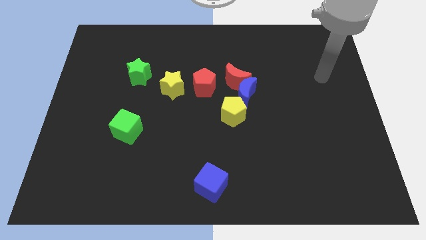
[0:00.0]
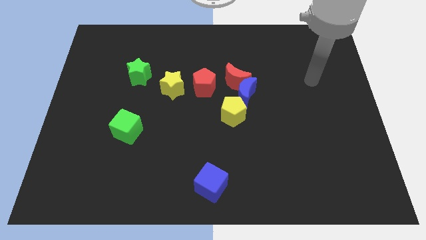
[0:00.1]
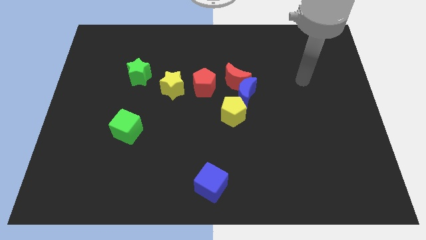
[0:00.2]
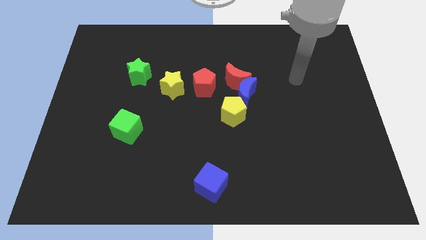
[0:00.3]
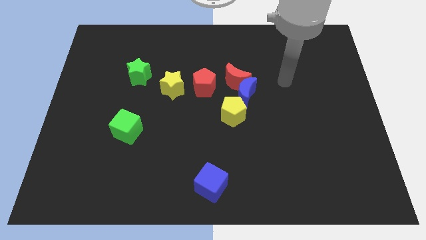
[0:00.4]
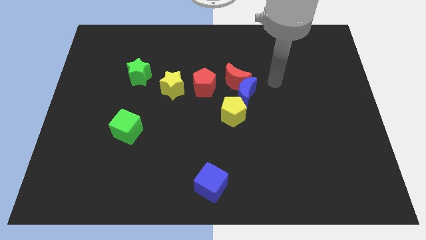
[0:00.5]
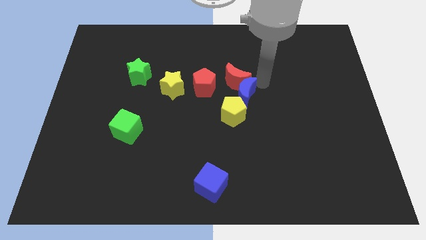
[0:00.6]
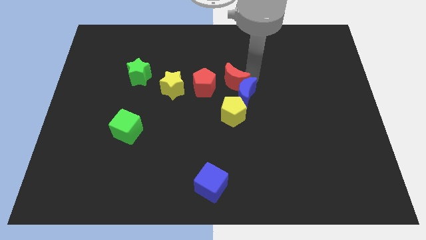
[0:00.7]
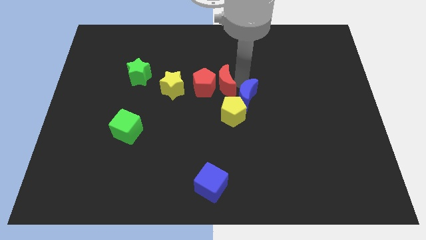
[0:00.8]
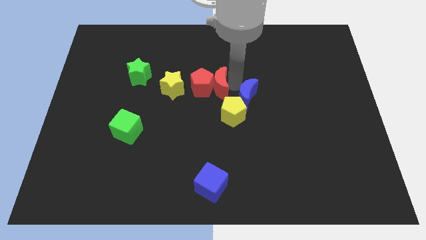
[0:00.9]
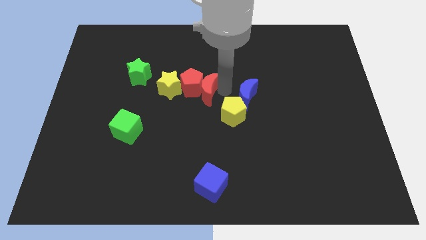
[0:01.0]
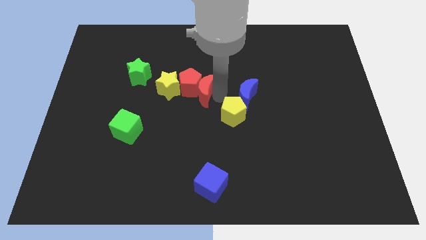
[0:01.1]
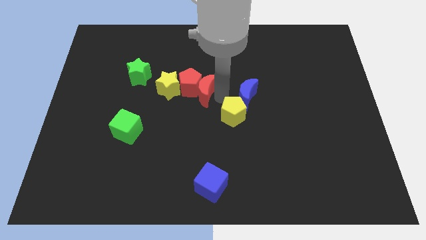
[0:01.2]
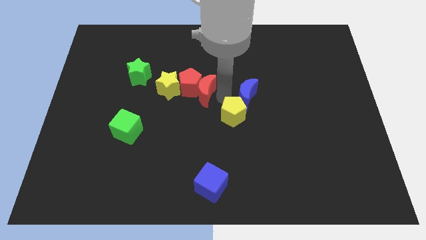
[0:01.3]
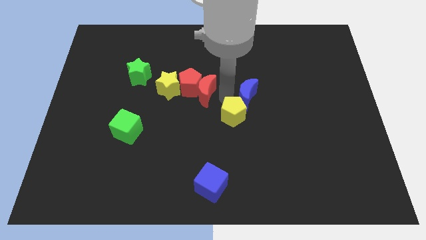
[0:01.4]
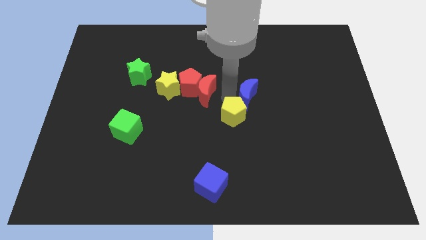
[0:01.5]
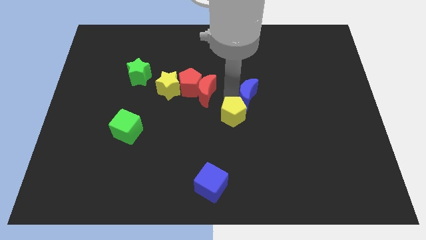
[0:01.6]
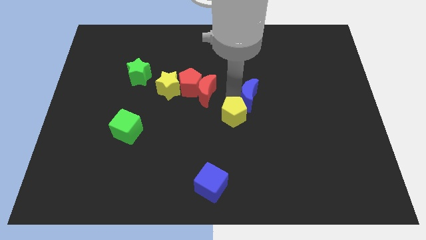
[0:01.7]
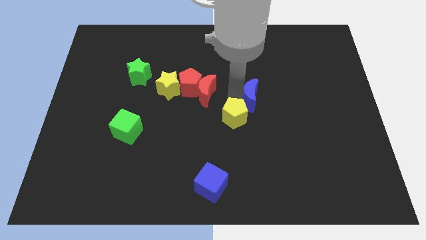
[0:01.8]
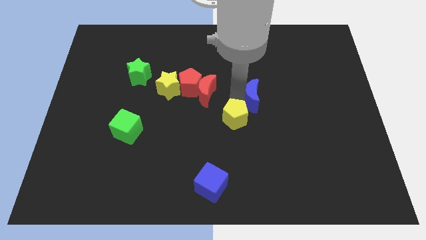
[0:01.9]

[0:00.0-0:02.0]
move the blue moon away from the red moon, yellow pentagon, and red pentagon

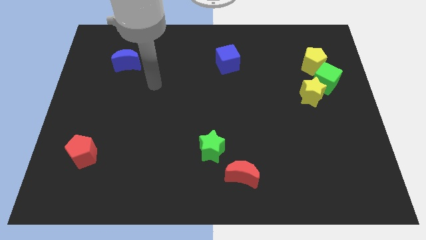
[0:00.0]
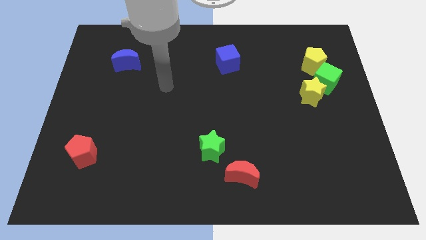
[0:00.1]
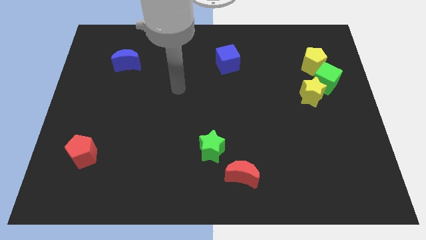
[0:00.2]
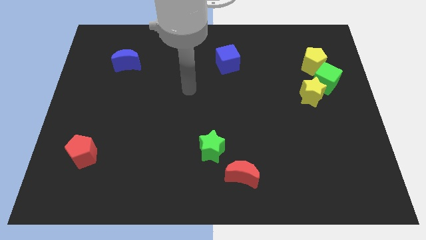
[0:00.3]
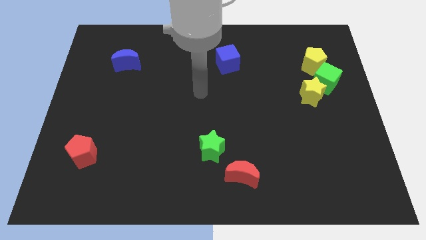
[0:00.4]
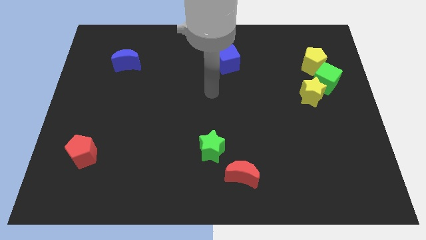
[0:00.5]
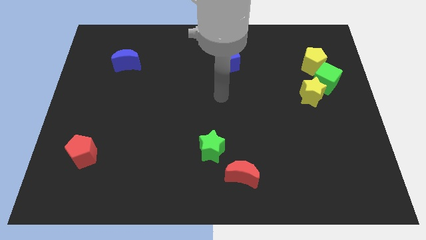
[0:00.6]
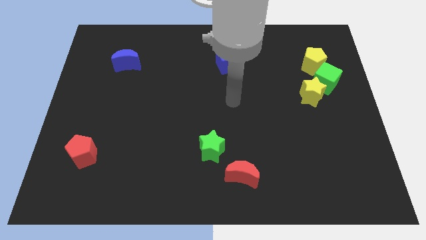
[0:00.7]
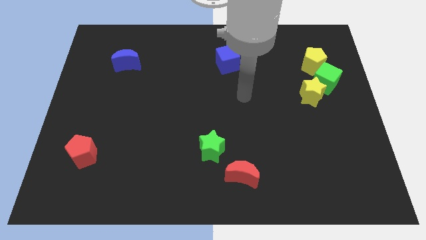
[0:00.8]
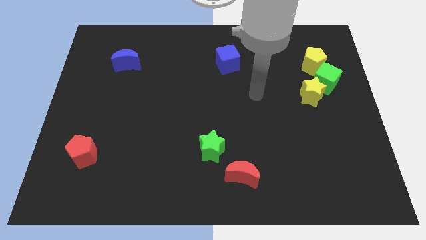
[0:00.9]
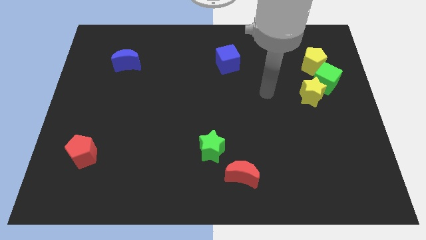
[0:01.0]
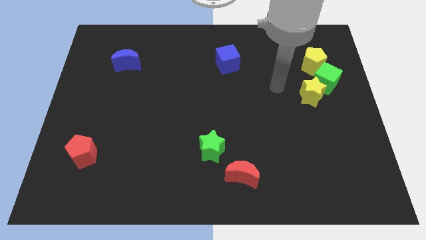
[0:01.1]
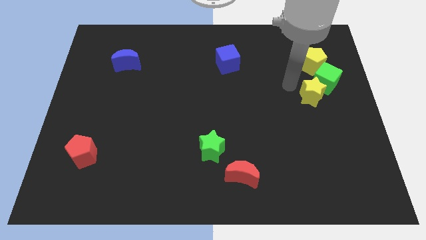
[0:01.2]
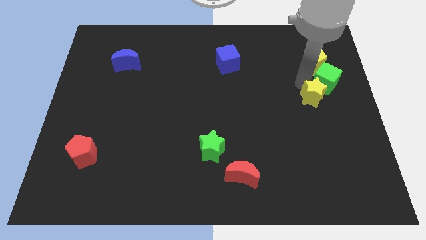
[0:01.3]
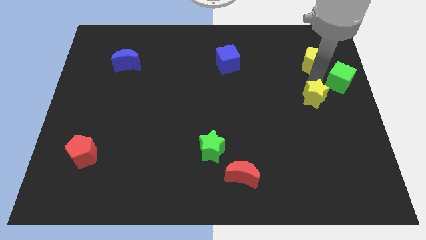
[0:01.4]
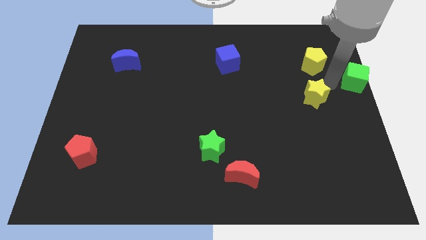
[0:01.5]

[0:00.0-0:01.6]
move the yellow star away from the green cube

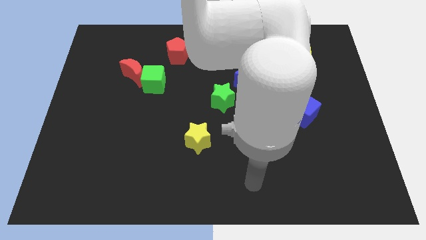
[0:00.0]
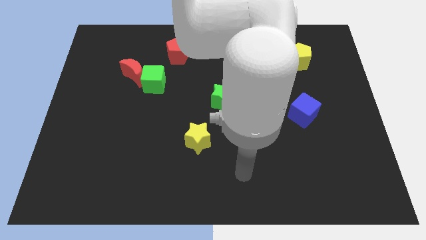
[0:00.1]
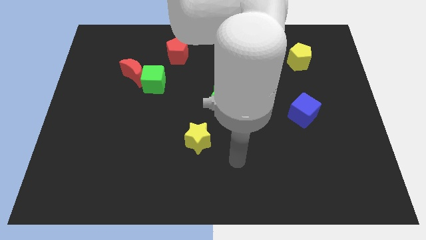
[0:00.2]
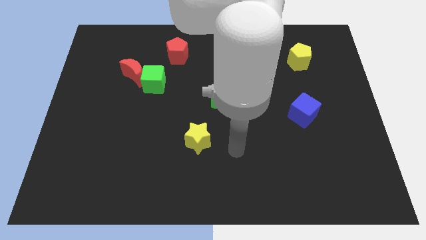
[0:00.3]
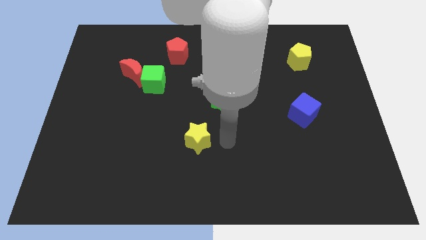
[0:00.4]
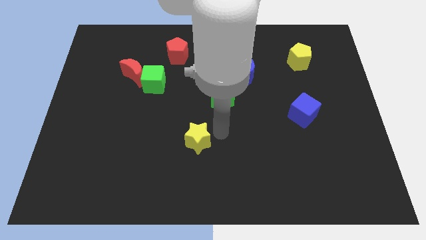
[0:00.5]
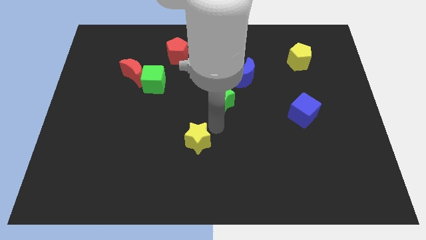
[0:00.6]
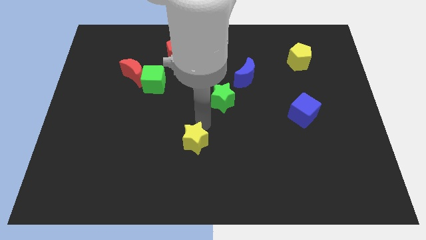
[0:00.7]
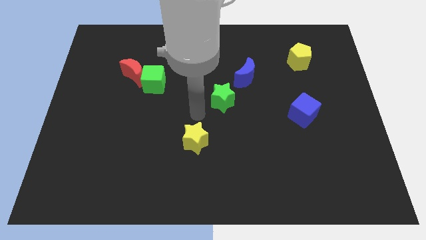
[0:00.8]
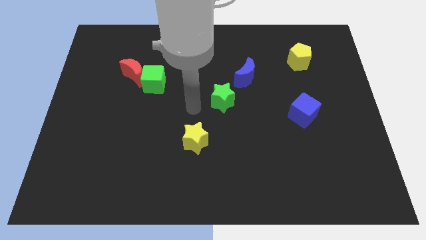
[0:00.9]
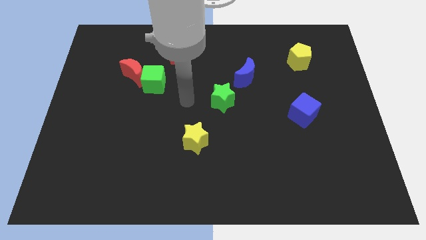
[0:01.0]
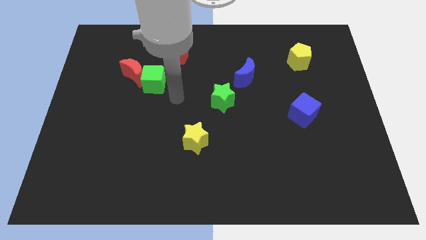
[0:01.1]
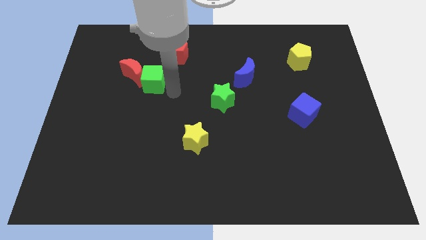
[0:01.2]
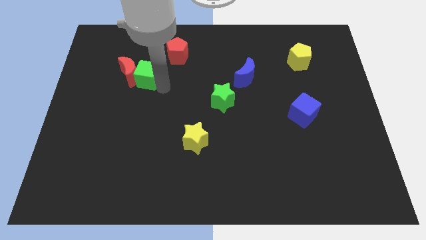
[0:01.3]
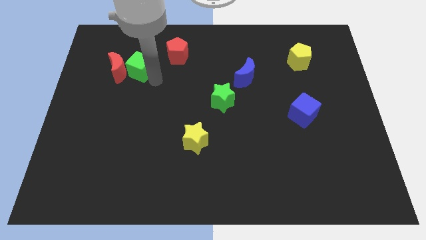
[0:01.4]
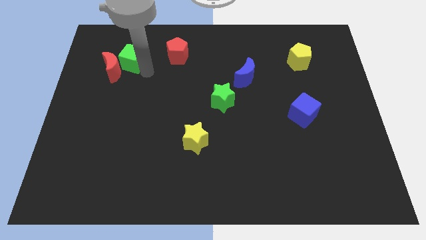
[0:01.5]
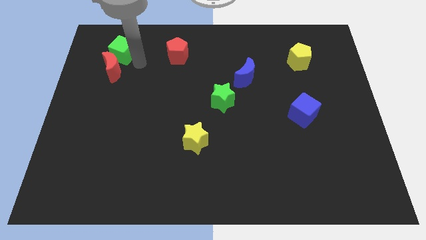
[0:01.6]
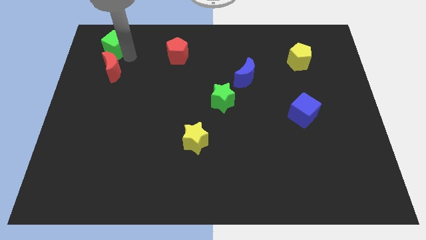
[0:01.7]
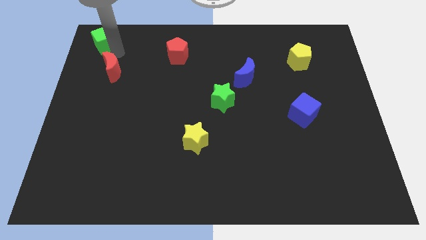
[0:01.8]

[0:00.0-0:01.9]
separate the red moon from the green cube

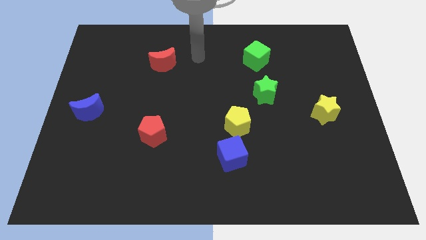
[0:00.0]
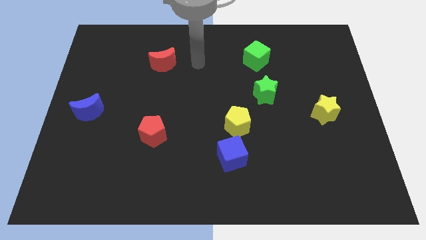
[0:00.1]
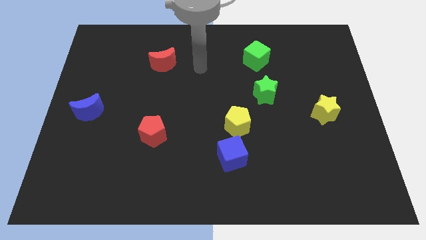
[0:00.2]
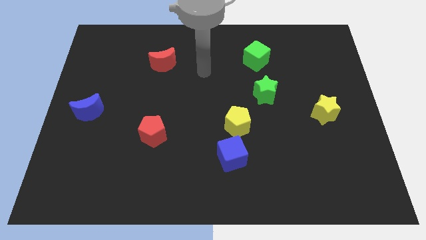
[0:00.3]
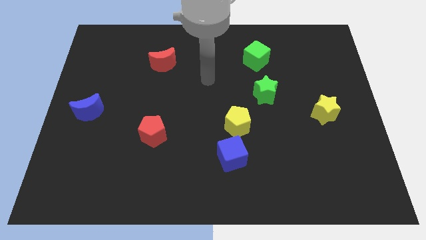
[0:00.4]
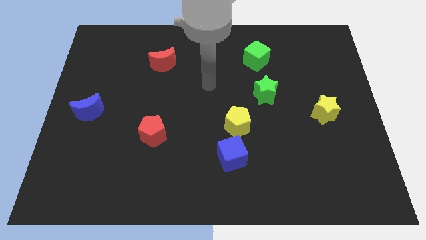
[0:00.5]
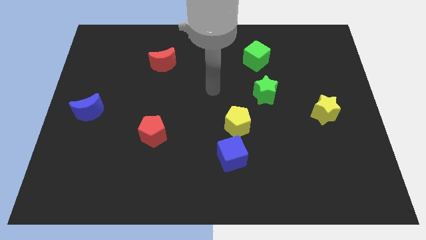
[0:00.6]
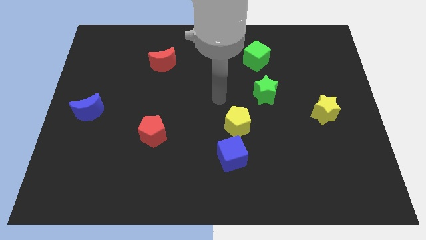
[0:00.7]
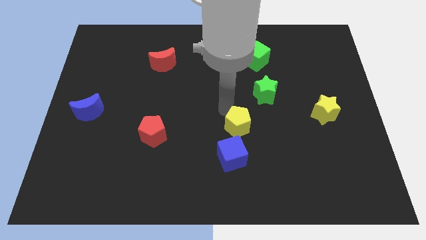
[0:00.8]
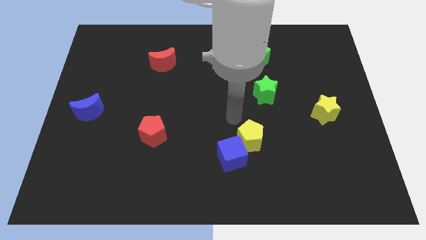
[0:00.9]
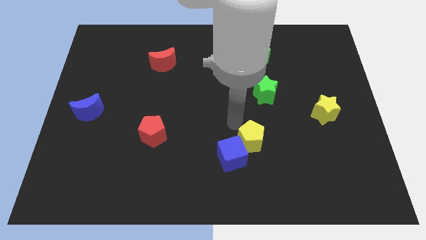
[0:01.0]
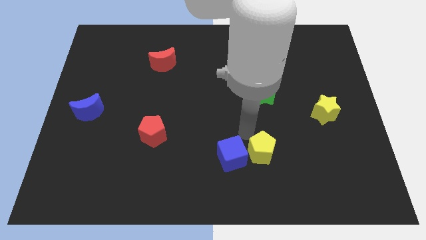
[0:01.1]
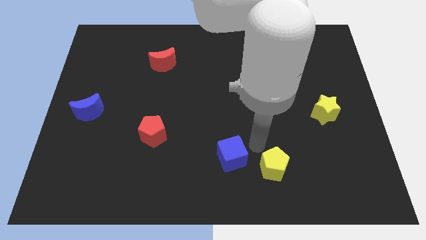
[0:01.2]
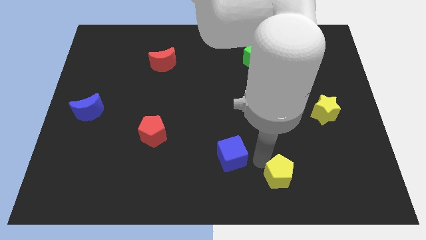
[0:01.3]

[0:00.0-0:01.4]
separate the blue cube from the yellow pentagon

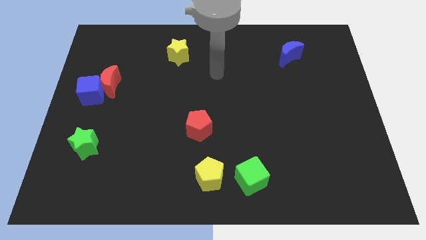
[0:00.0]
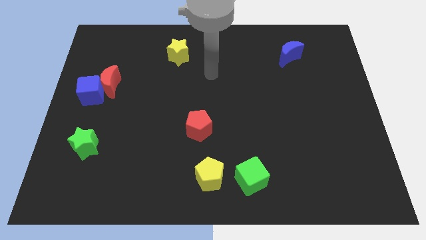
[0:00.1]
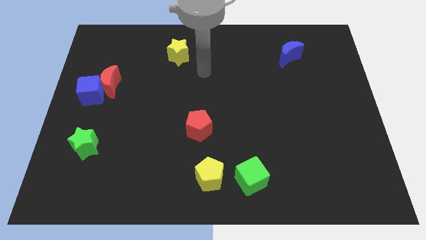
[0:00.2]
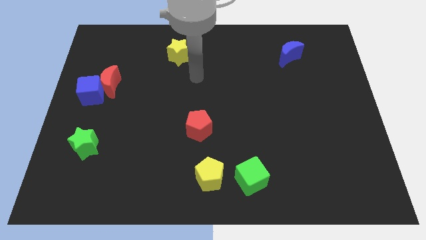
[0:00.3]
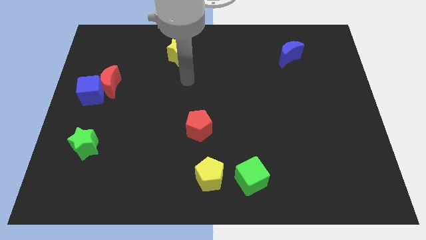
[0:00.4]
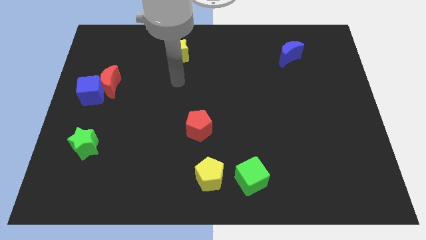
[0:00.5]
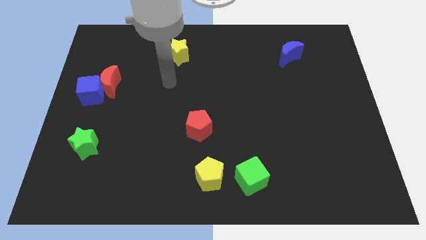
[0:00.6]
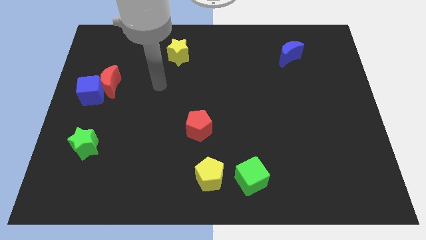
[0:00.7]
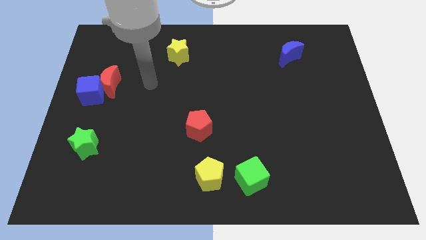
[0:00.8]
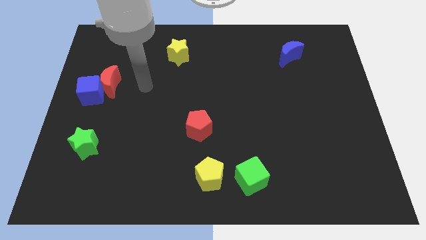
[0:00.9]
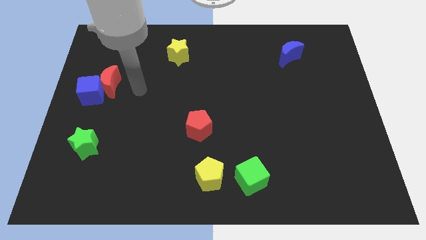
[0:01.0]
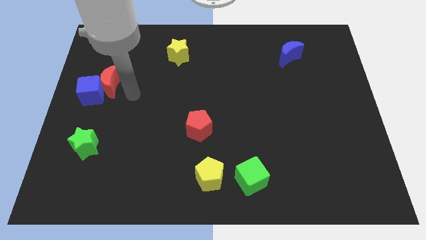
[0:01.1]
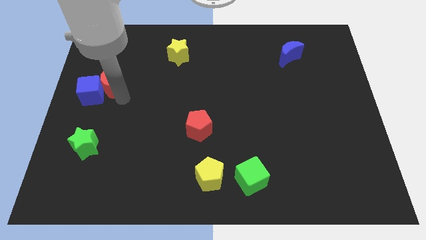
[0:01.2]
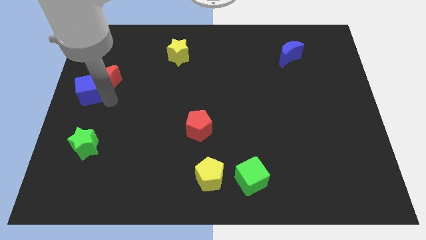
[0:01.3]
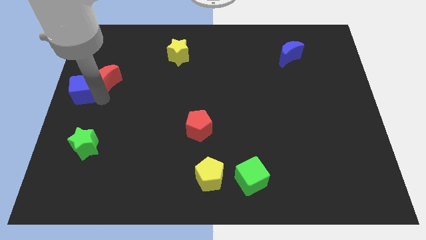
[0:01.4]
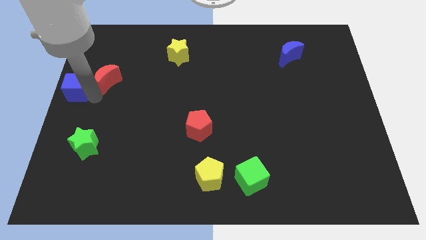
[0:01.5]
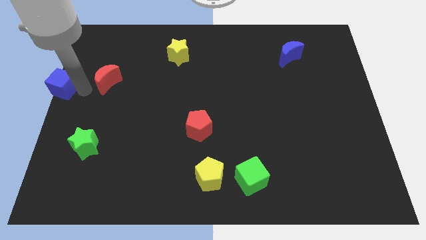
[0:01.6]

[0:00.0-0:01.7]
pull the red moon apart from the blue cube

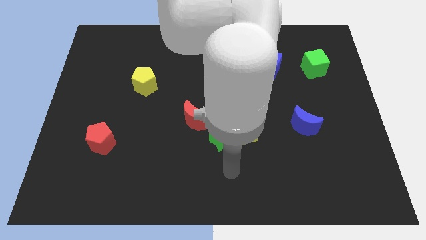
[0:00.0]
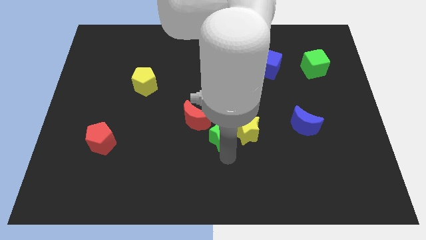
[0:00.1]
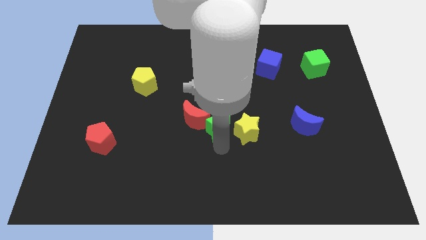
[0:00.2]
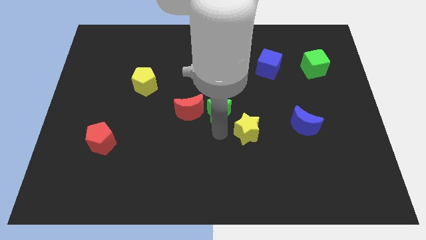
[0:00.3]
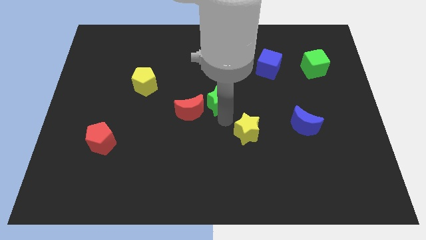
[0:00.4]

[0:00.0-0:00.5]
separate the yellow star from the green star

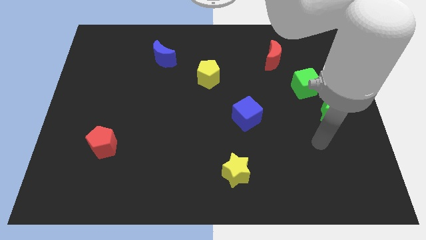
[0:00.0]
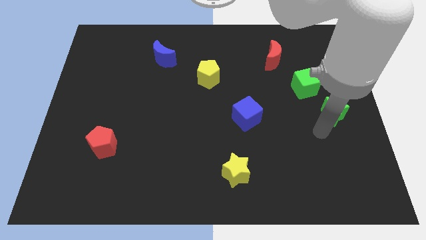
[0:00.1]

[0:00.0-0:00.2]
separate the green cube from the green star
